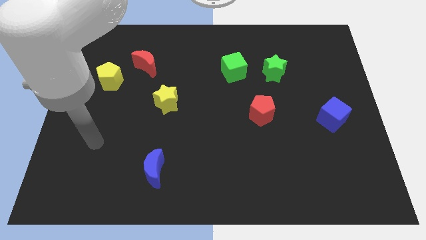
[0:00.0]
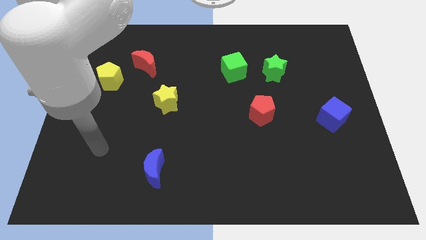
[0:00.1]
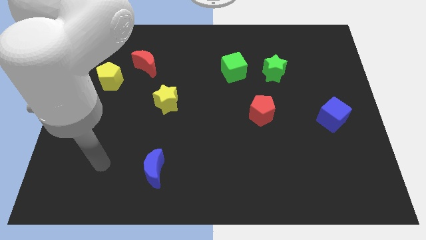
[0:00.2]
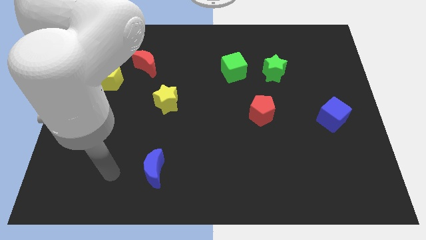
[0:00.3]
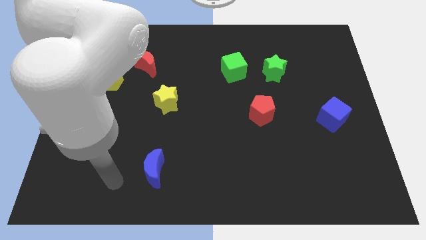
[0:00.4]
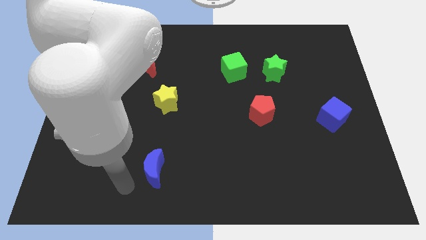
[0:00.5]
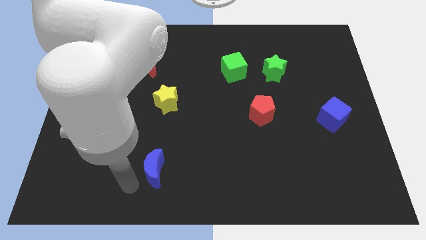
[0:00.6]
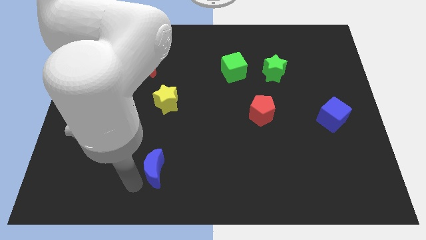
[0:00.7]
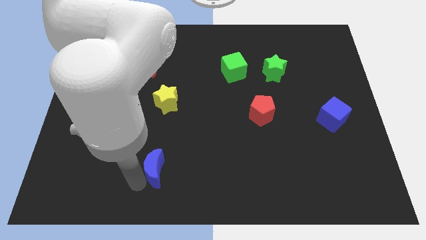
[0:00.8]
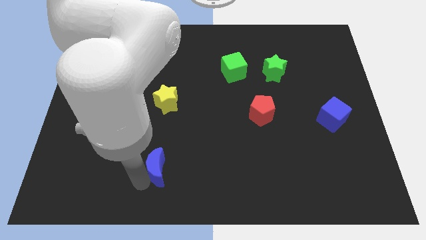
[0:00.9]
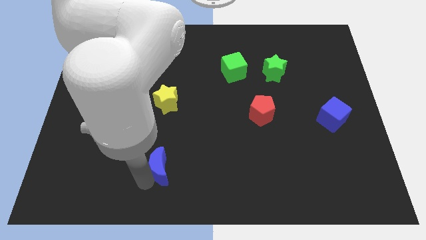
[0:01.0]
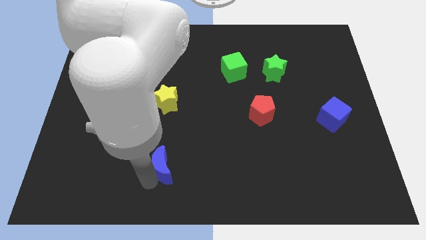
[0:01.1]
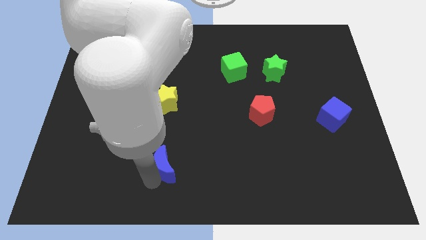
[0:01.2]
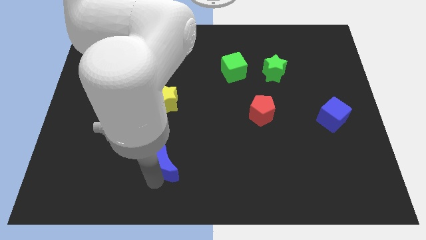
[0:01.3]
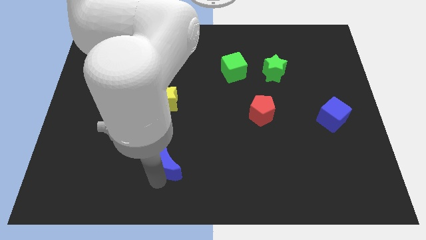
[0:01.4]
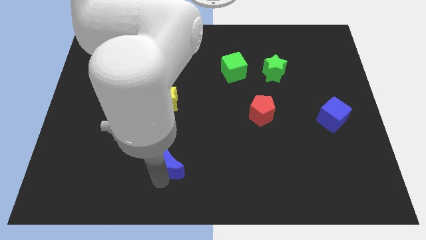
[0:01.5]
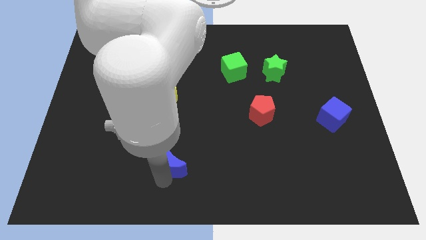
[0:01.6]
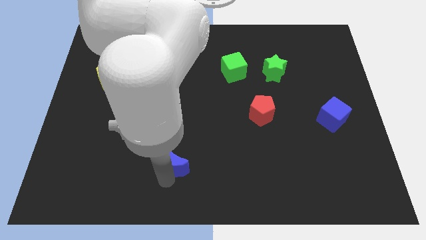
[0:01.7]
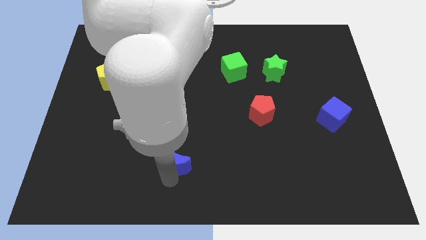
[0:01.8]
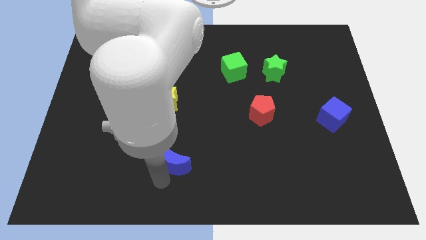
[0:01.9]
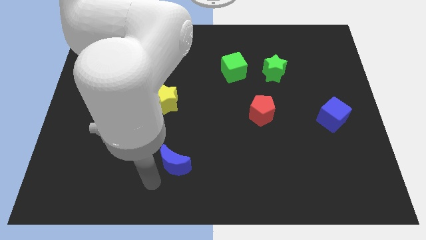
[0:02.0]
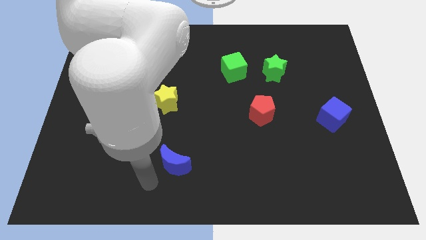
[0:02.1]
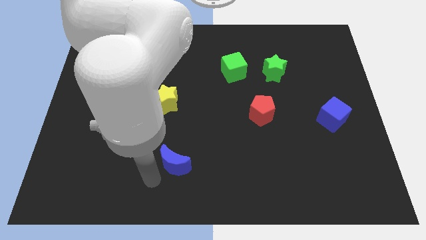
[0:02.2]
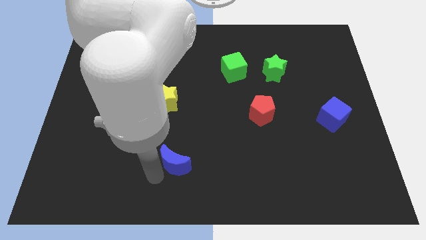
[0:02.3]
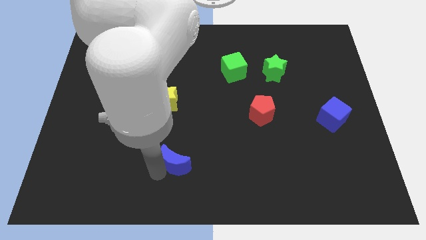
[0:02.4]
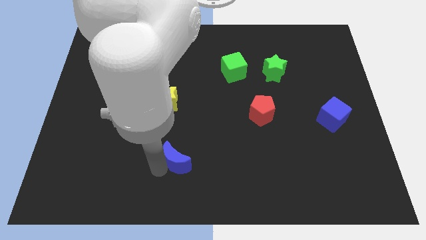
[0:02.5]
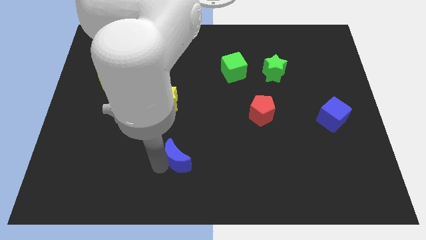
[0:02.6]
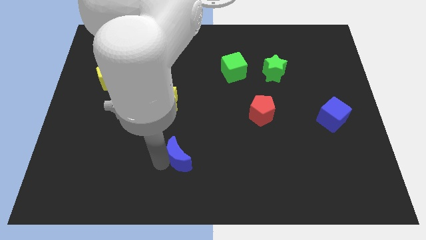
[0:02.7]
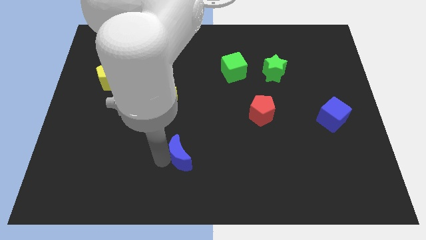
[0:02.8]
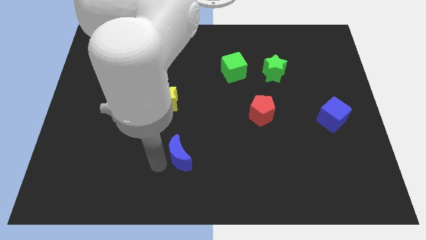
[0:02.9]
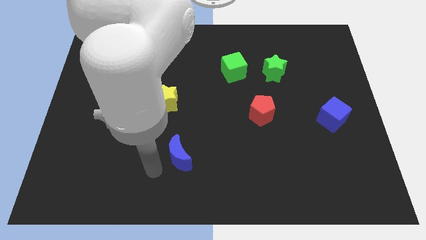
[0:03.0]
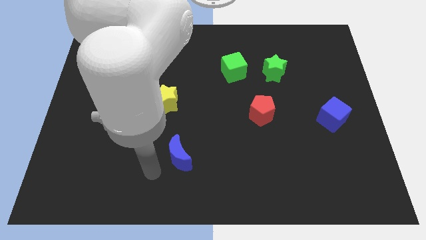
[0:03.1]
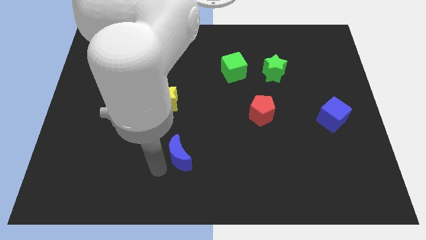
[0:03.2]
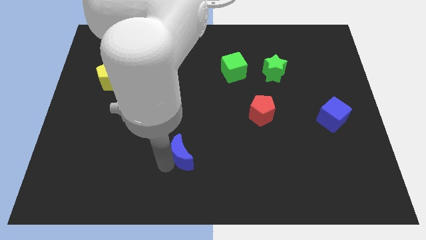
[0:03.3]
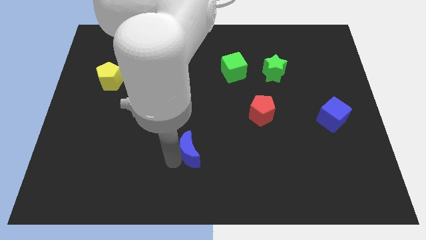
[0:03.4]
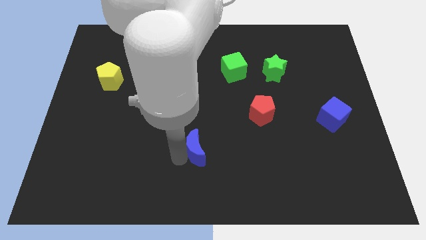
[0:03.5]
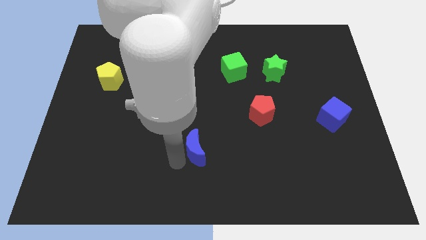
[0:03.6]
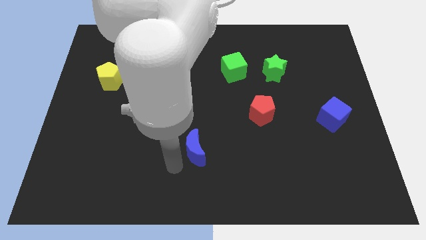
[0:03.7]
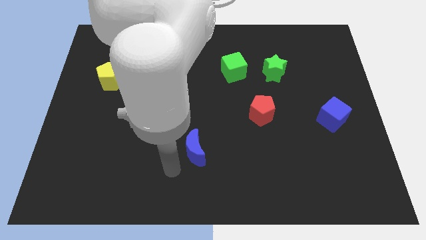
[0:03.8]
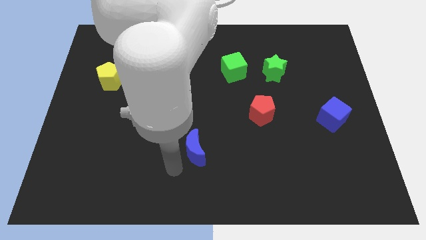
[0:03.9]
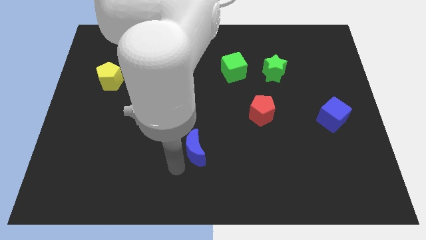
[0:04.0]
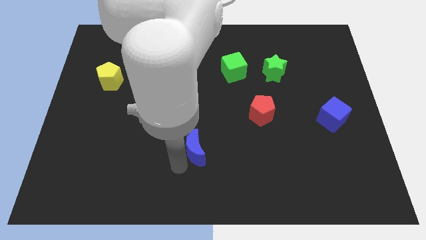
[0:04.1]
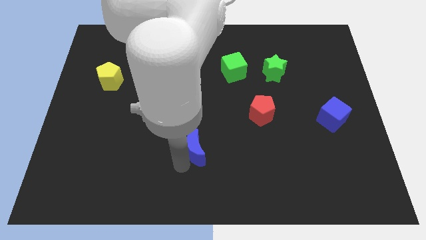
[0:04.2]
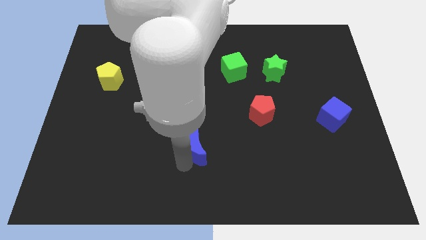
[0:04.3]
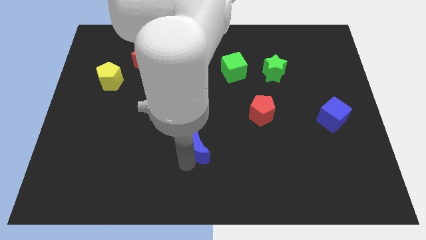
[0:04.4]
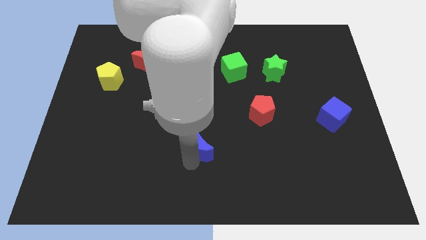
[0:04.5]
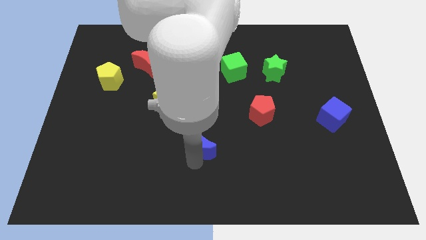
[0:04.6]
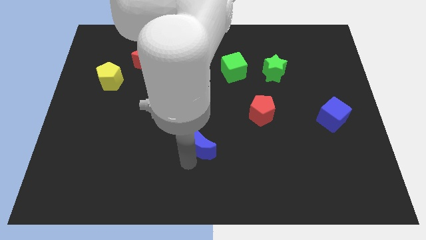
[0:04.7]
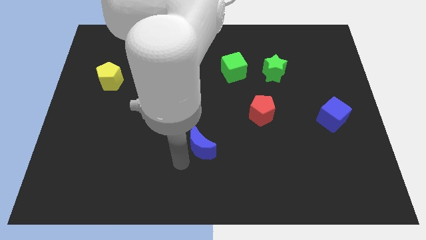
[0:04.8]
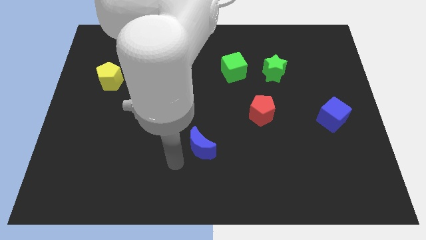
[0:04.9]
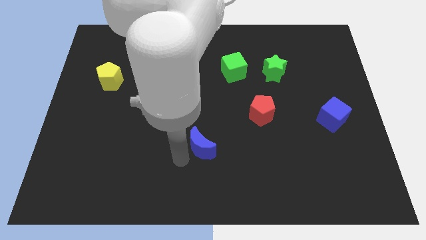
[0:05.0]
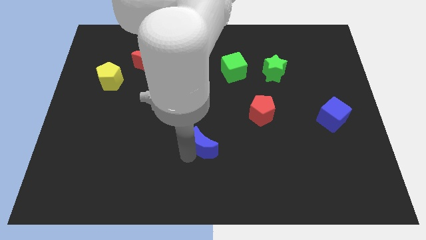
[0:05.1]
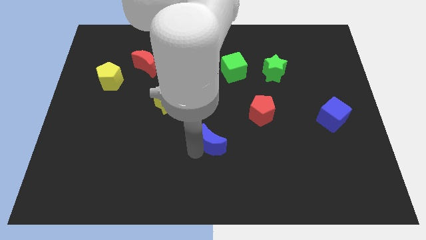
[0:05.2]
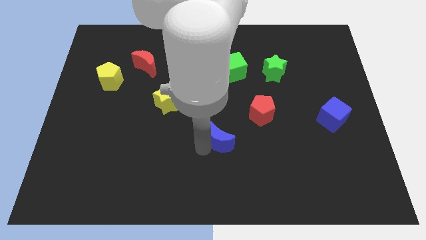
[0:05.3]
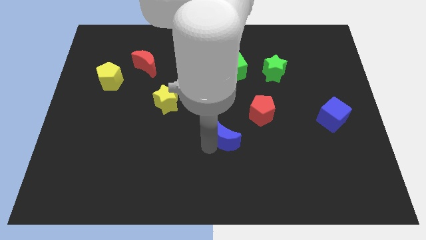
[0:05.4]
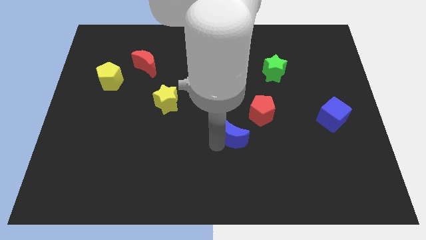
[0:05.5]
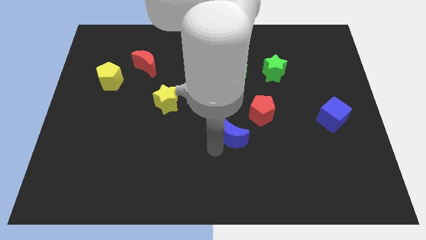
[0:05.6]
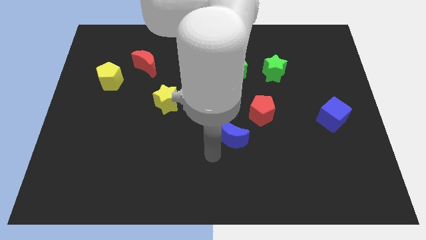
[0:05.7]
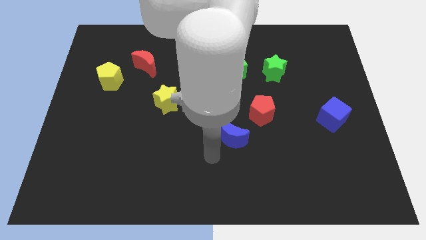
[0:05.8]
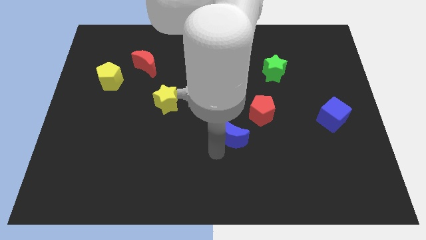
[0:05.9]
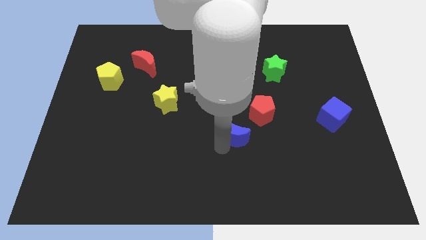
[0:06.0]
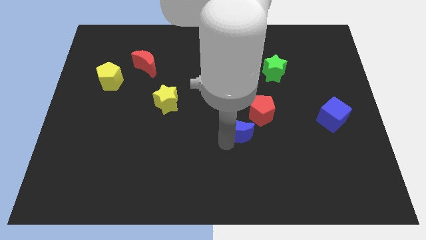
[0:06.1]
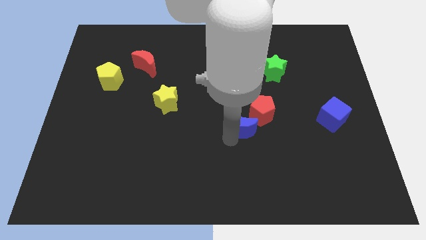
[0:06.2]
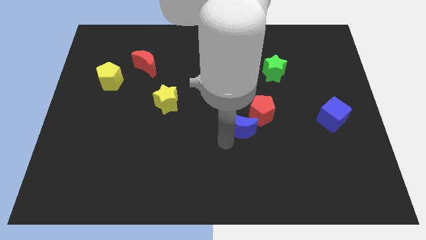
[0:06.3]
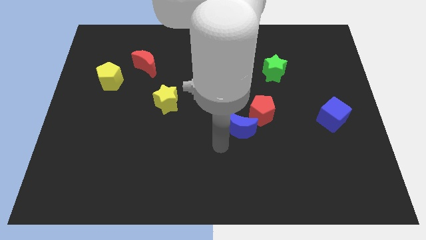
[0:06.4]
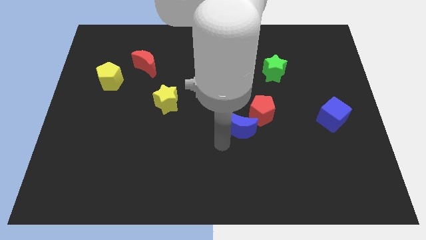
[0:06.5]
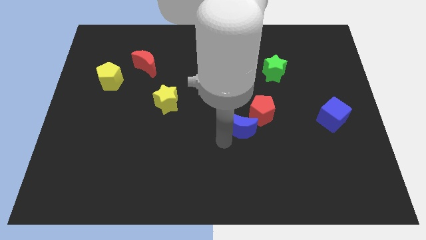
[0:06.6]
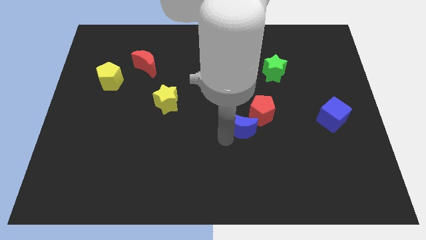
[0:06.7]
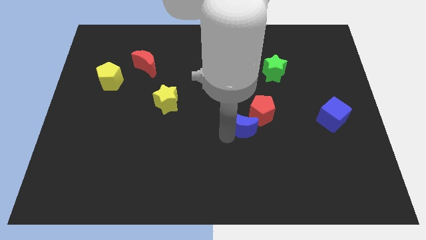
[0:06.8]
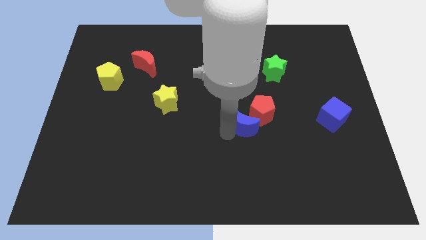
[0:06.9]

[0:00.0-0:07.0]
push the blue moon to the red pentagon
